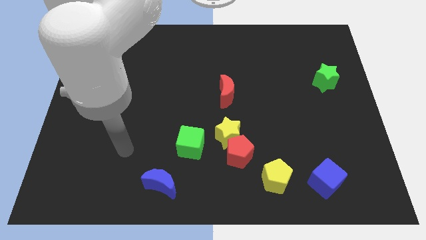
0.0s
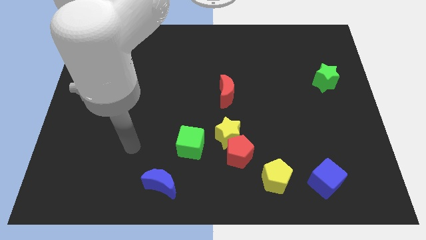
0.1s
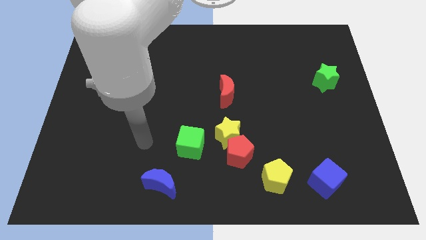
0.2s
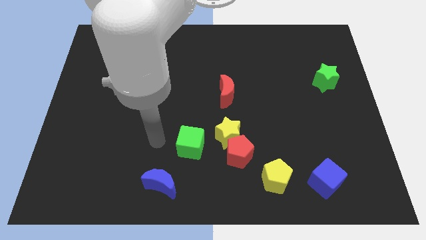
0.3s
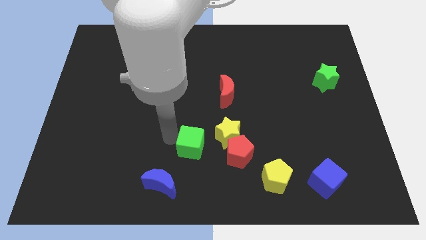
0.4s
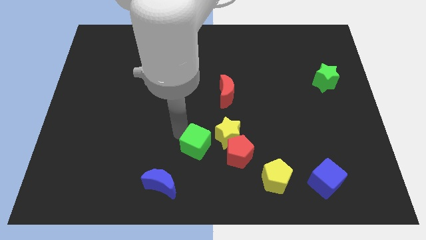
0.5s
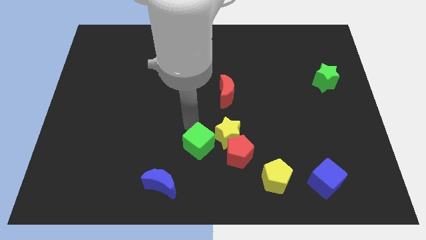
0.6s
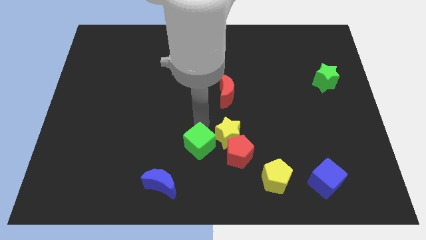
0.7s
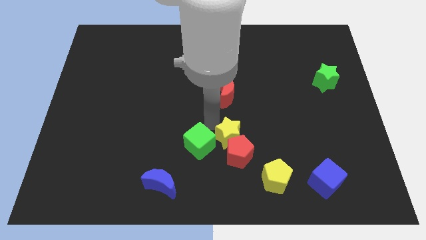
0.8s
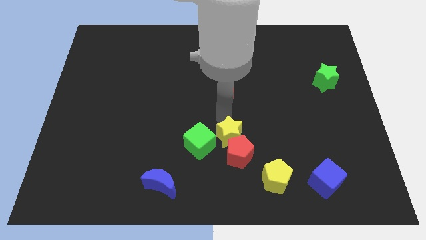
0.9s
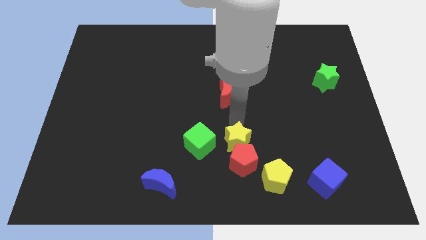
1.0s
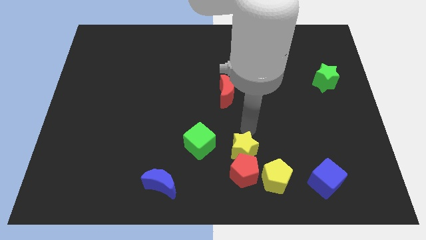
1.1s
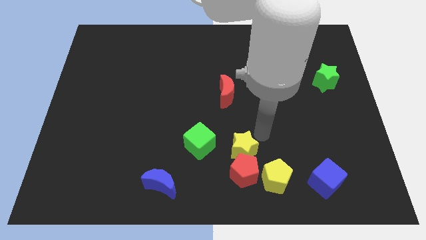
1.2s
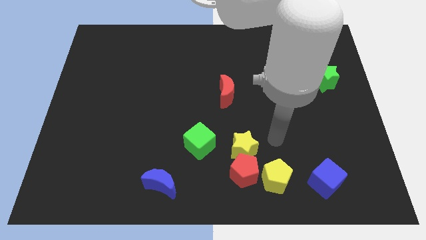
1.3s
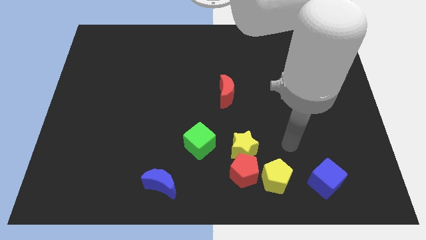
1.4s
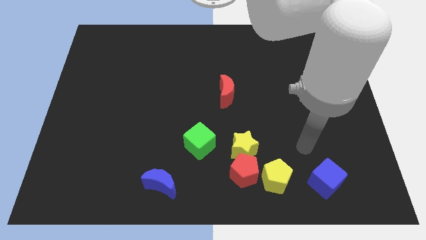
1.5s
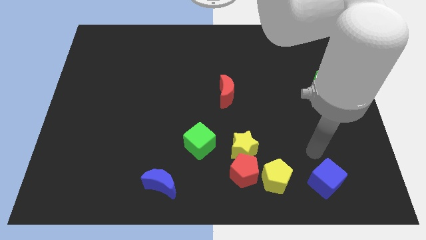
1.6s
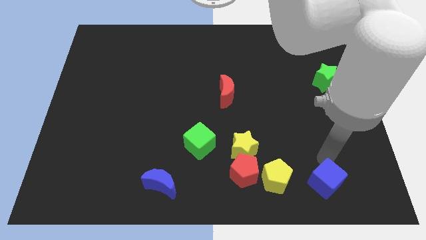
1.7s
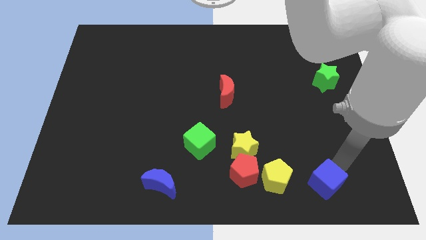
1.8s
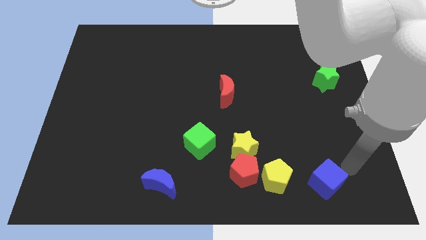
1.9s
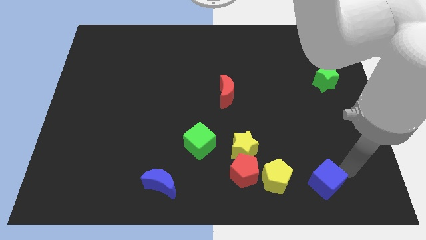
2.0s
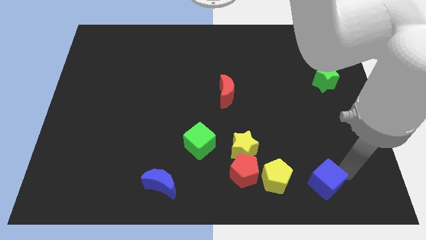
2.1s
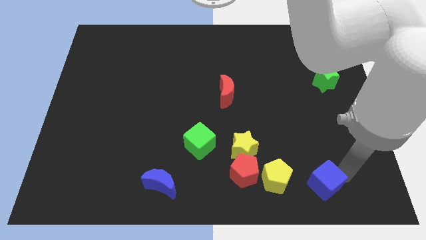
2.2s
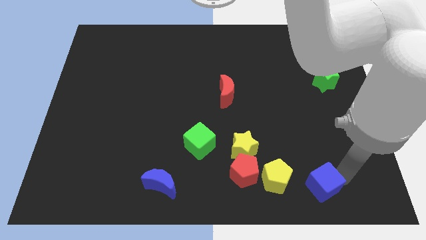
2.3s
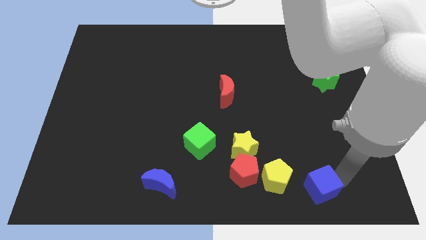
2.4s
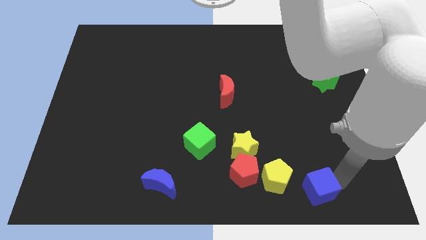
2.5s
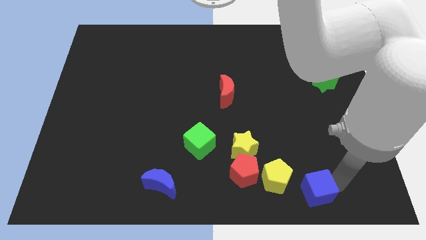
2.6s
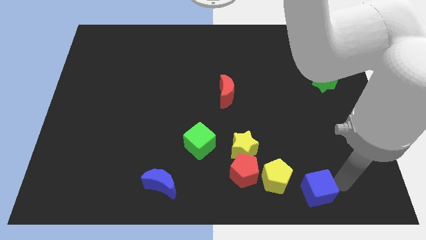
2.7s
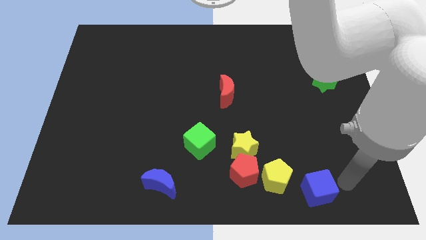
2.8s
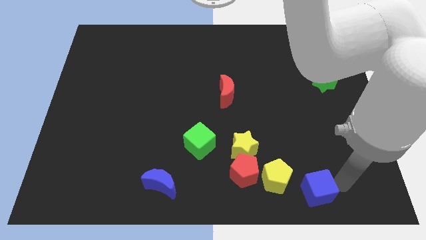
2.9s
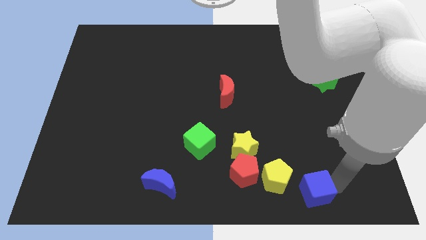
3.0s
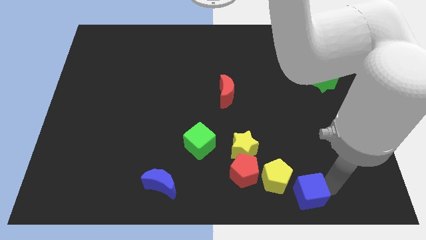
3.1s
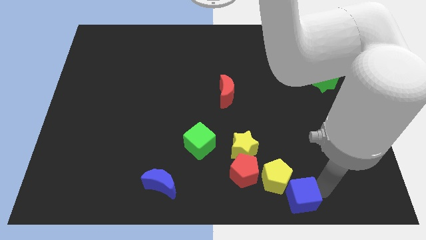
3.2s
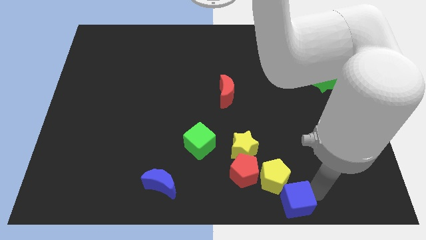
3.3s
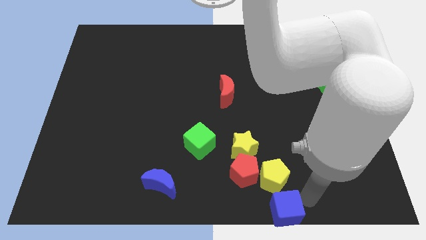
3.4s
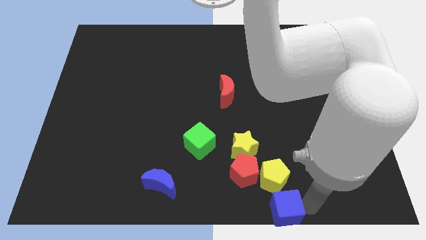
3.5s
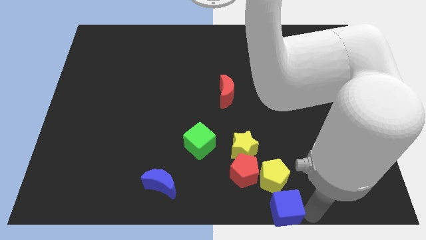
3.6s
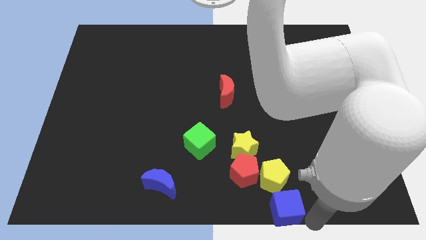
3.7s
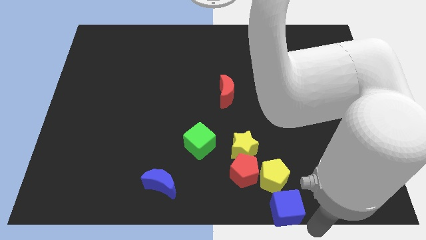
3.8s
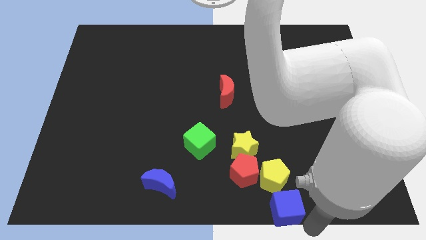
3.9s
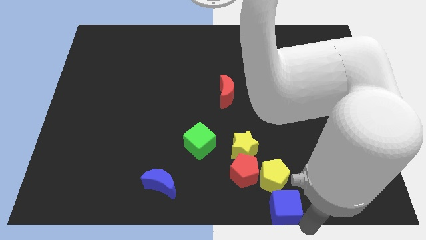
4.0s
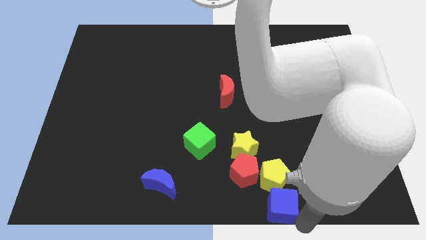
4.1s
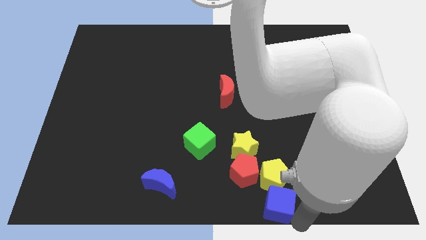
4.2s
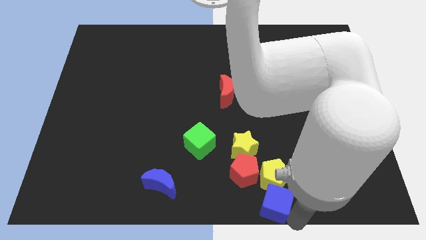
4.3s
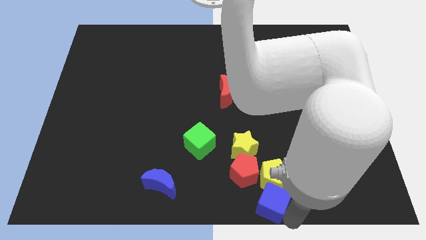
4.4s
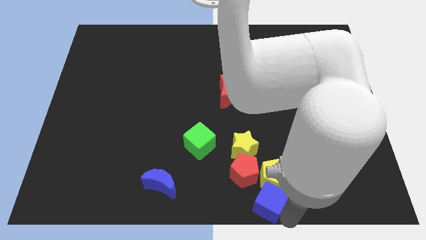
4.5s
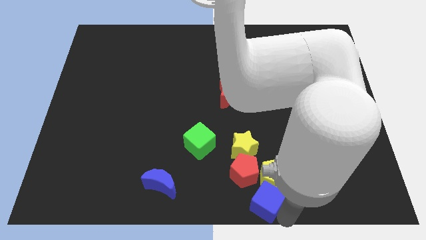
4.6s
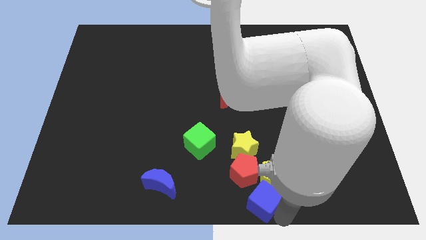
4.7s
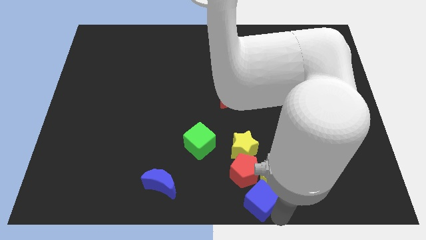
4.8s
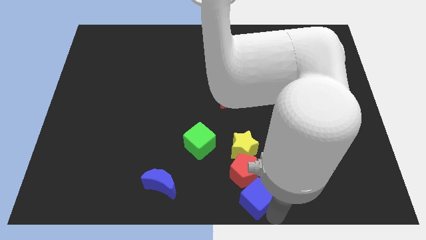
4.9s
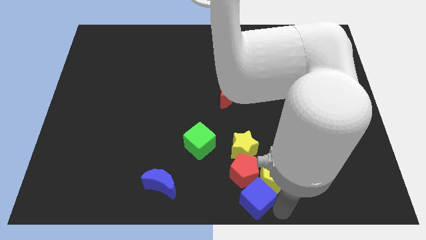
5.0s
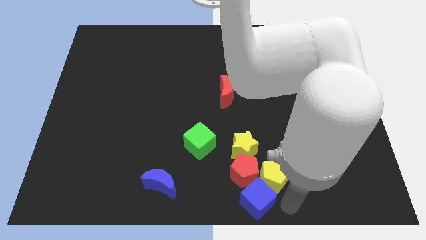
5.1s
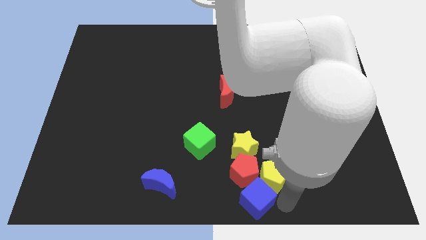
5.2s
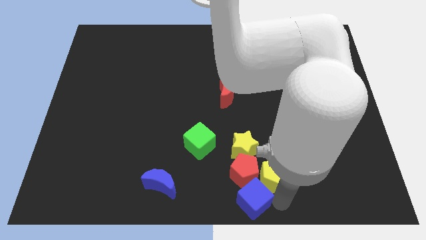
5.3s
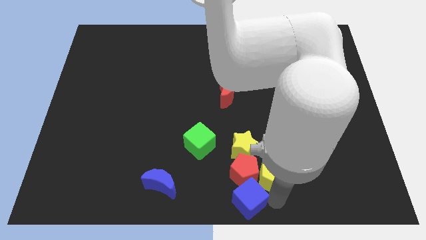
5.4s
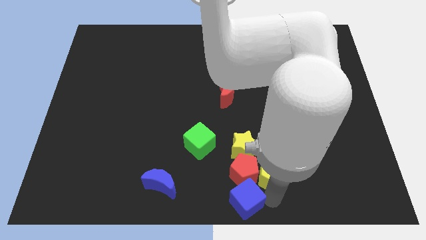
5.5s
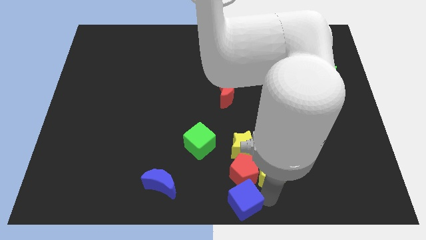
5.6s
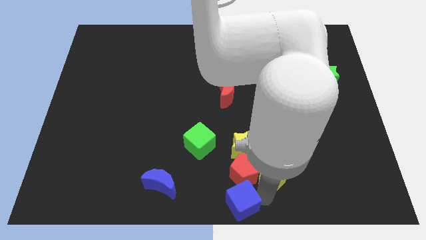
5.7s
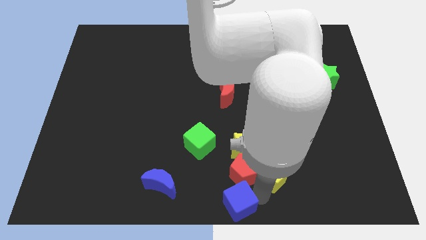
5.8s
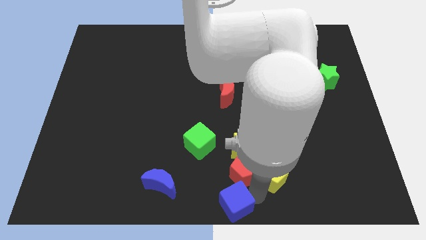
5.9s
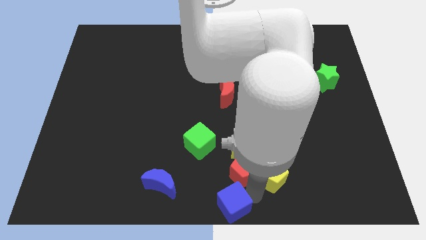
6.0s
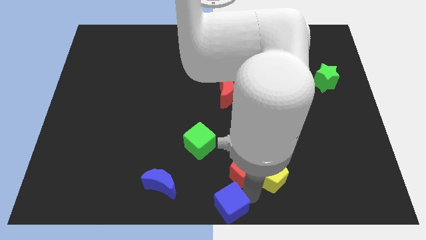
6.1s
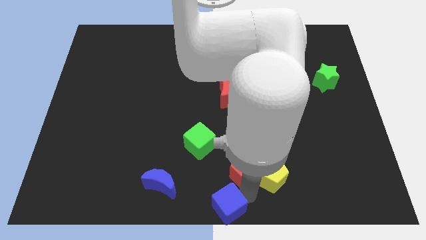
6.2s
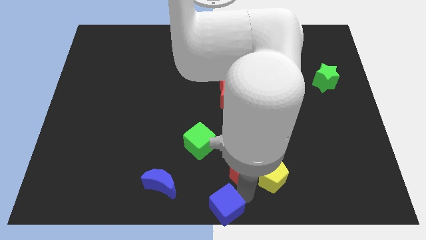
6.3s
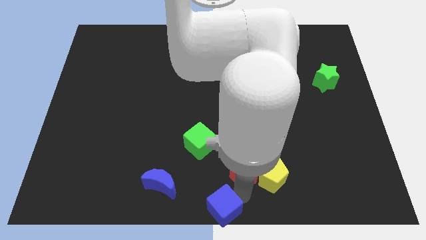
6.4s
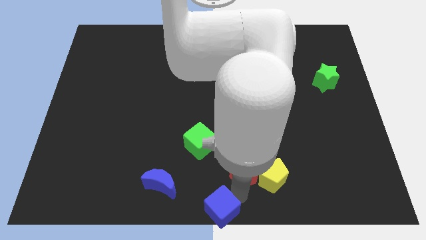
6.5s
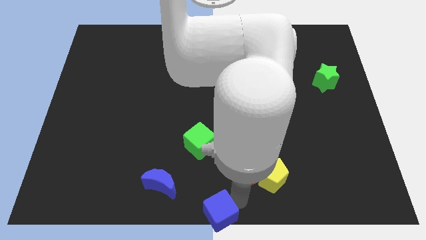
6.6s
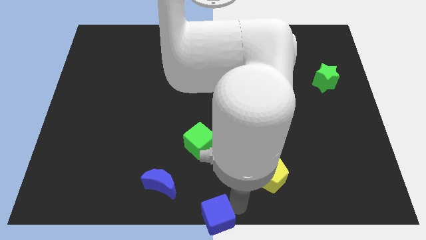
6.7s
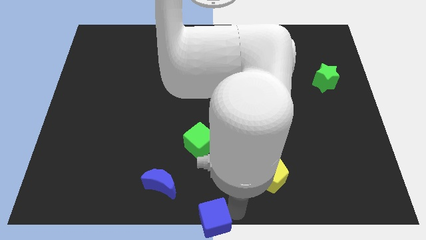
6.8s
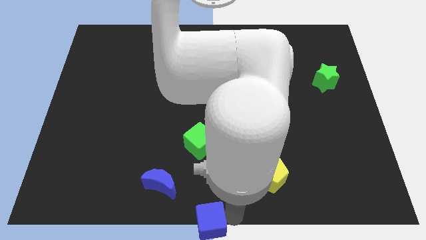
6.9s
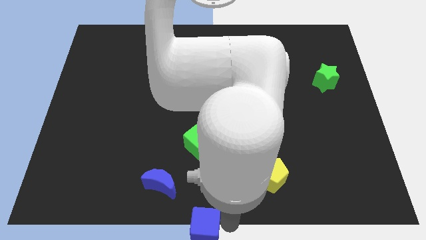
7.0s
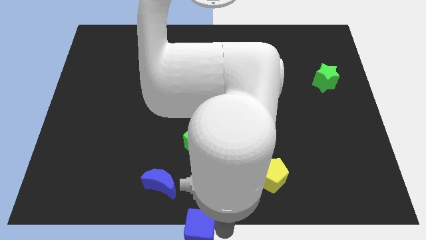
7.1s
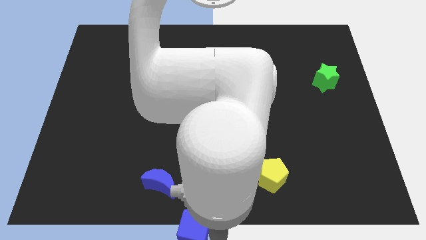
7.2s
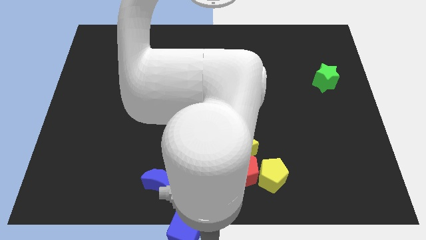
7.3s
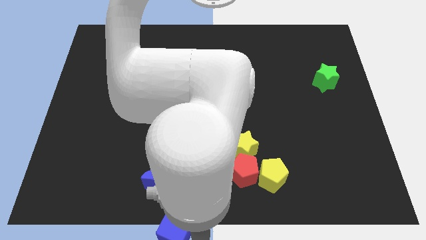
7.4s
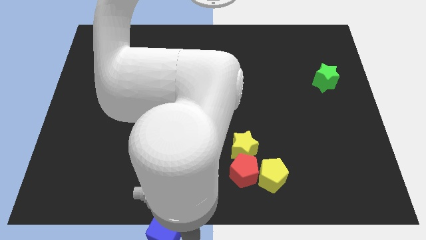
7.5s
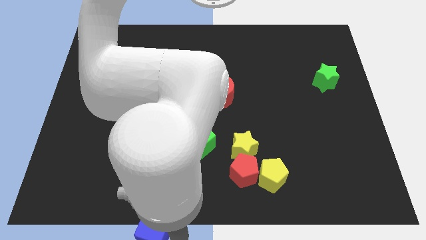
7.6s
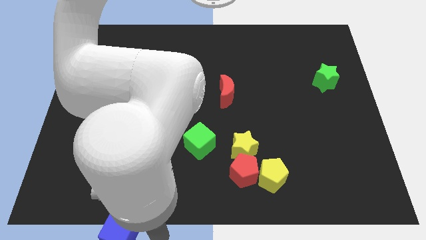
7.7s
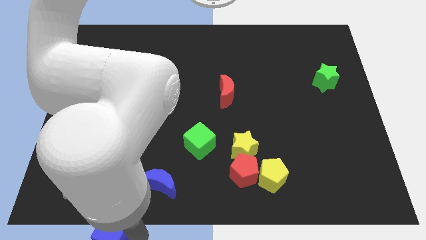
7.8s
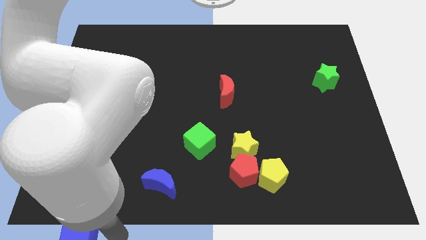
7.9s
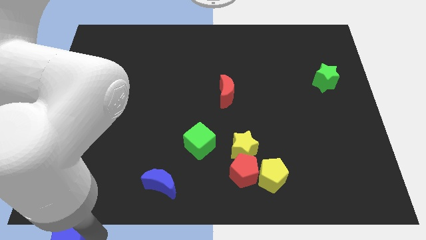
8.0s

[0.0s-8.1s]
put the blue cube to the bottom left corner
